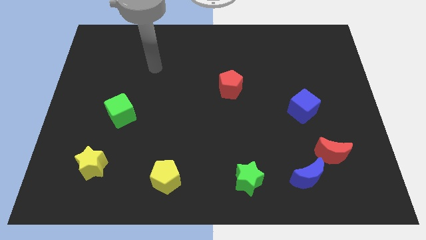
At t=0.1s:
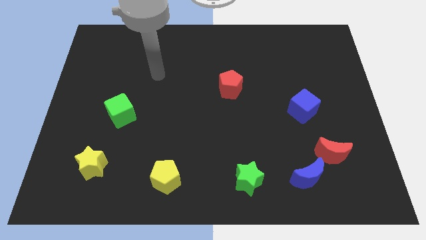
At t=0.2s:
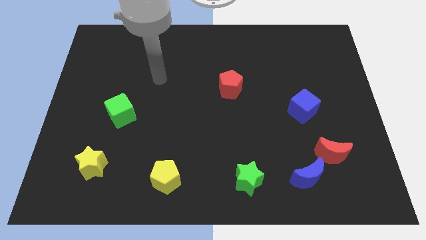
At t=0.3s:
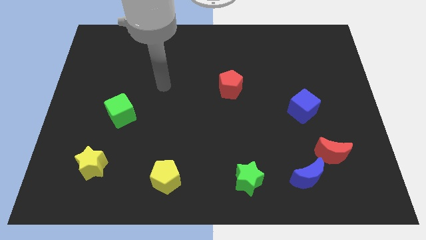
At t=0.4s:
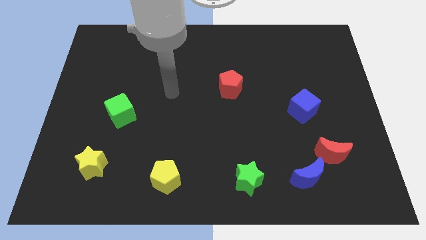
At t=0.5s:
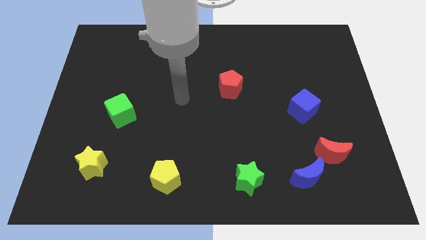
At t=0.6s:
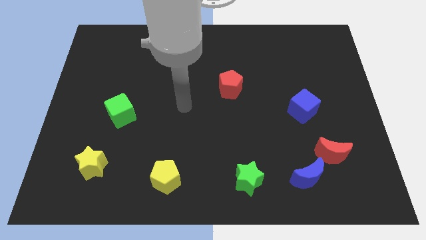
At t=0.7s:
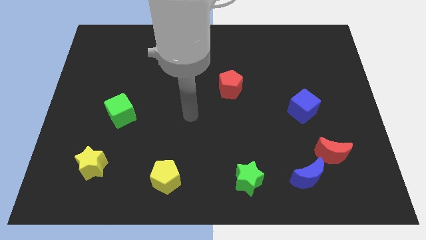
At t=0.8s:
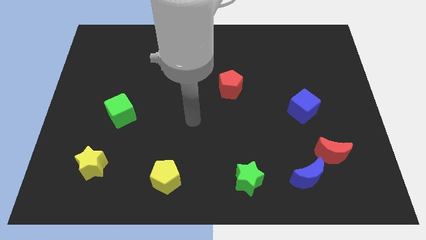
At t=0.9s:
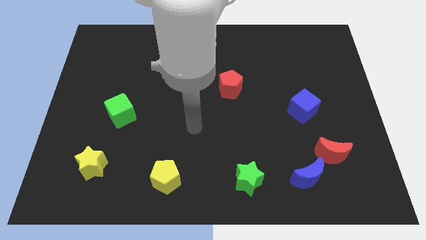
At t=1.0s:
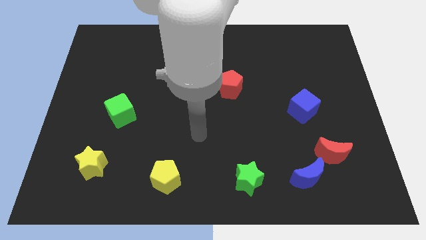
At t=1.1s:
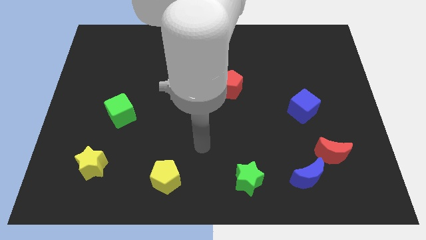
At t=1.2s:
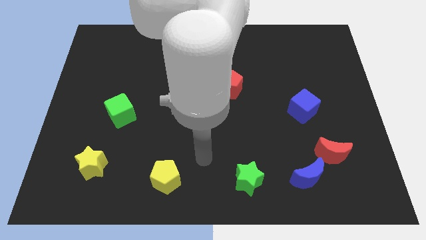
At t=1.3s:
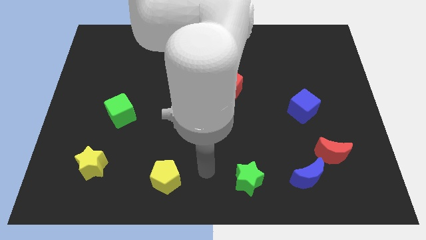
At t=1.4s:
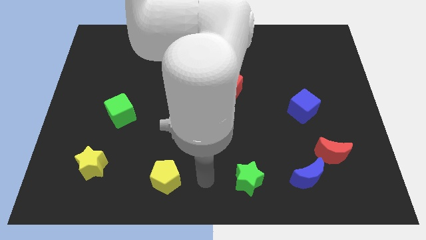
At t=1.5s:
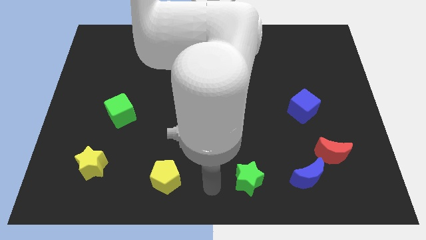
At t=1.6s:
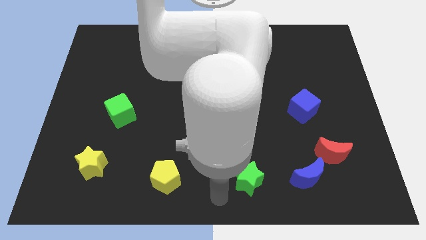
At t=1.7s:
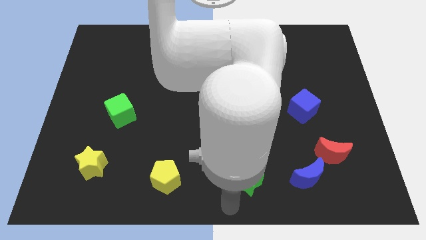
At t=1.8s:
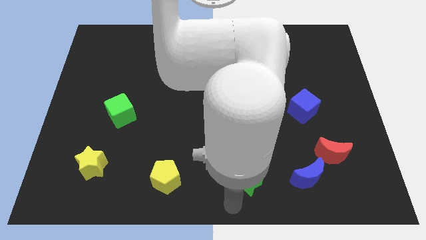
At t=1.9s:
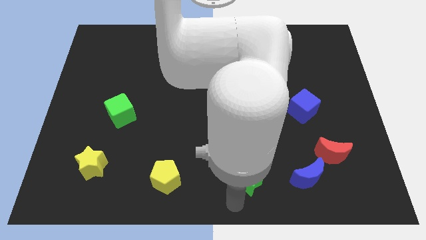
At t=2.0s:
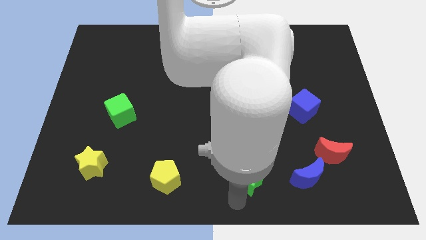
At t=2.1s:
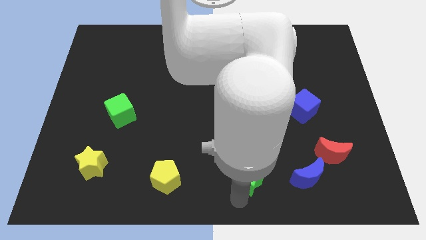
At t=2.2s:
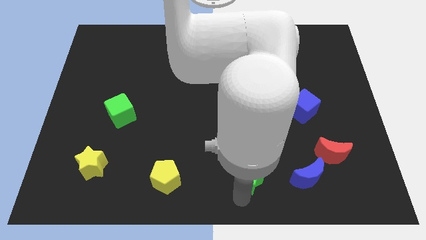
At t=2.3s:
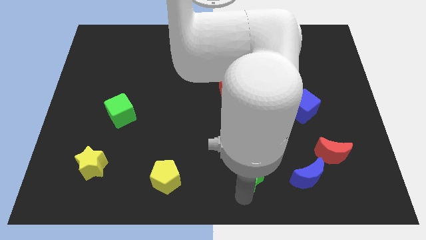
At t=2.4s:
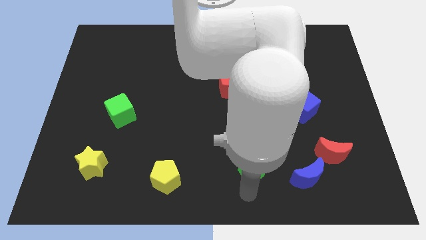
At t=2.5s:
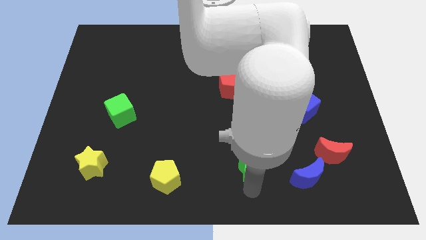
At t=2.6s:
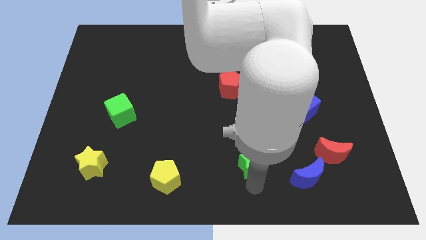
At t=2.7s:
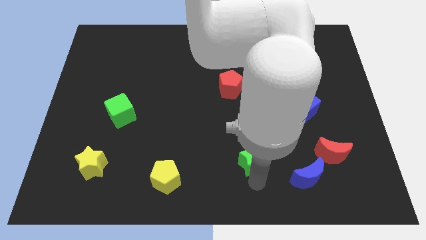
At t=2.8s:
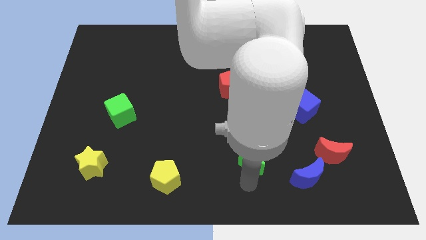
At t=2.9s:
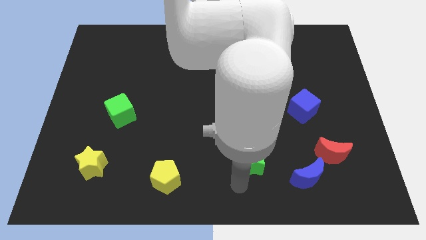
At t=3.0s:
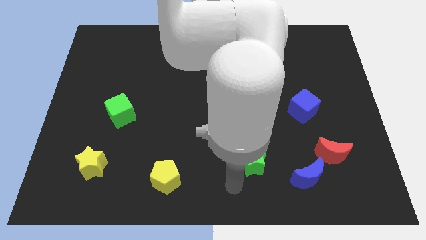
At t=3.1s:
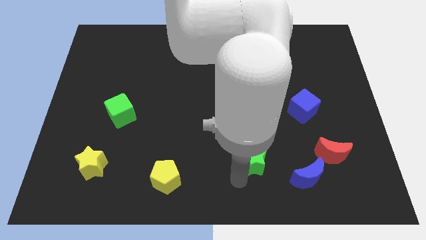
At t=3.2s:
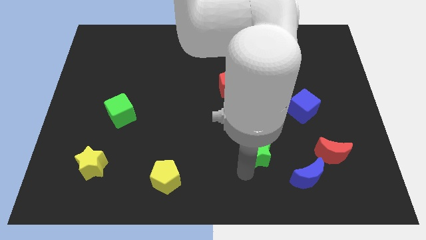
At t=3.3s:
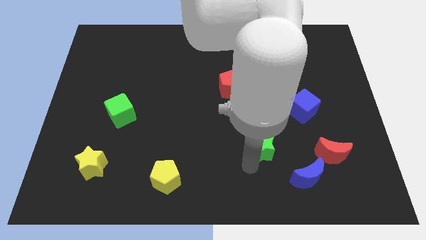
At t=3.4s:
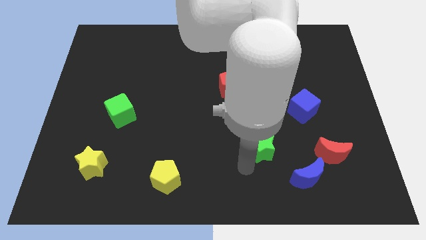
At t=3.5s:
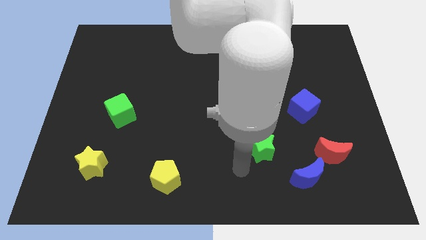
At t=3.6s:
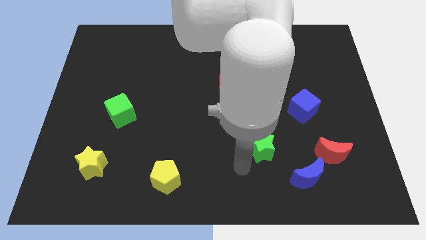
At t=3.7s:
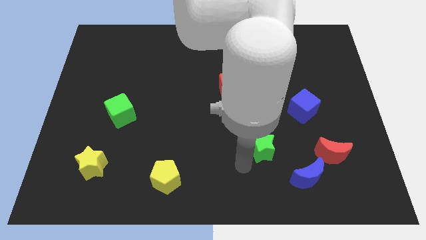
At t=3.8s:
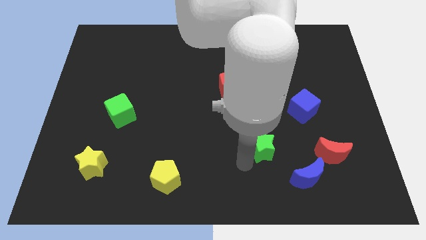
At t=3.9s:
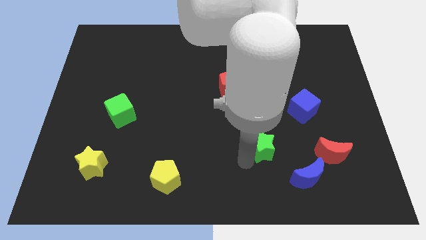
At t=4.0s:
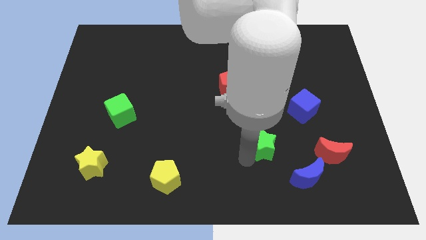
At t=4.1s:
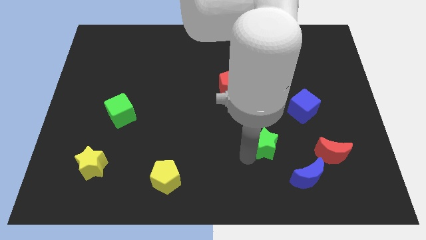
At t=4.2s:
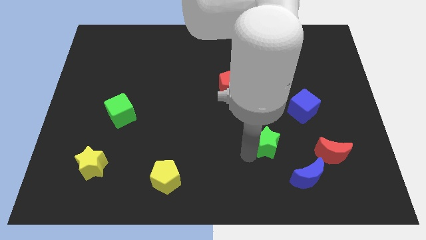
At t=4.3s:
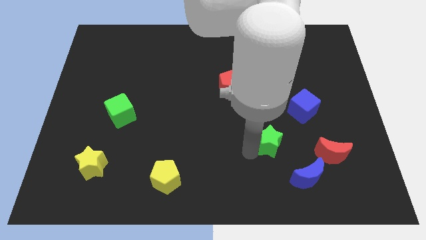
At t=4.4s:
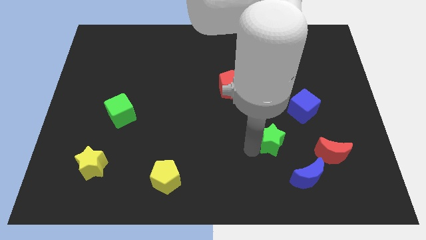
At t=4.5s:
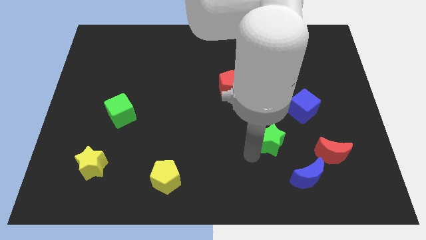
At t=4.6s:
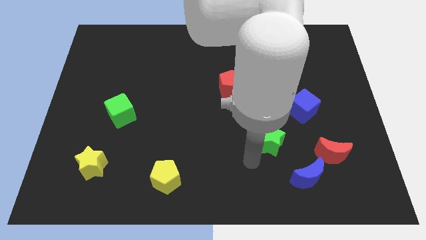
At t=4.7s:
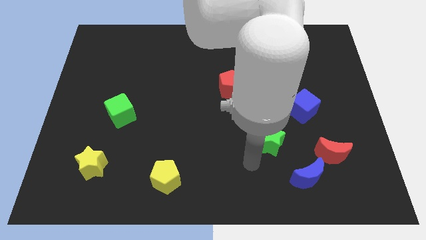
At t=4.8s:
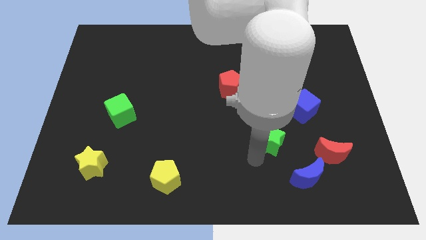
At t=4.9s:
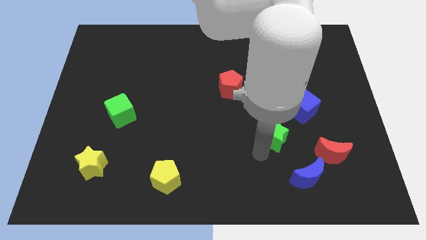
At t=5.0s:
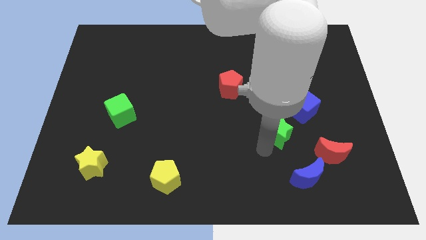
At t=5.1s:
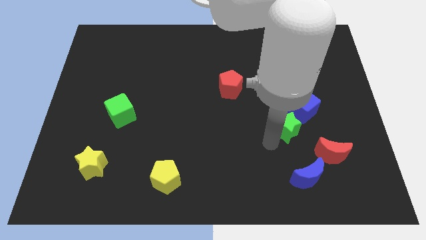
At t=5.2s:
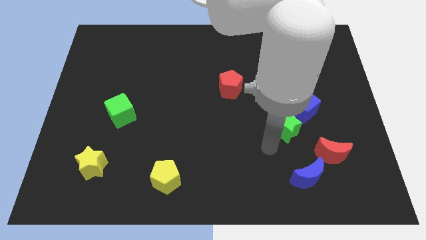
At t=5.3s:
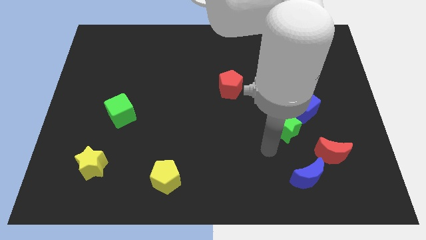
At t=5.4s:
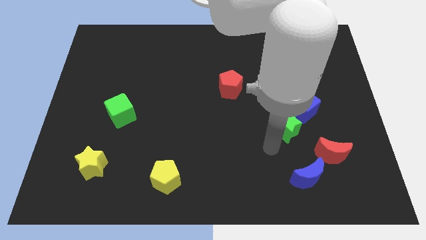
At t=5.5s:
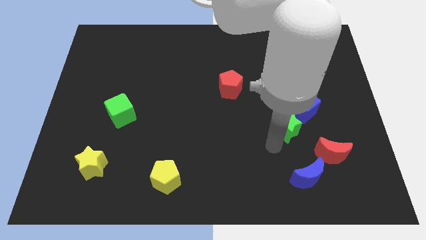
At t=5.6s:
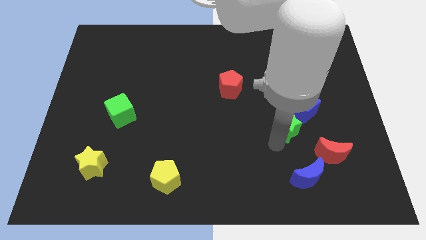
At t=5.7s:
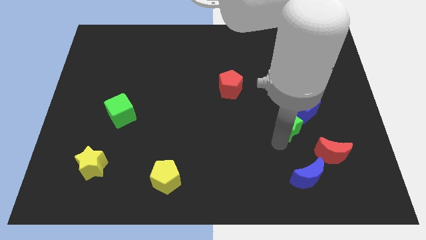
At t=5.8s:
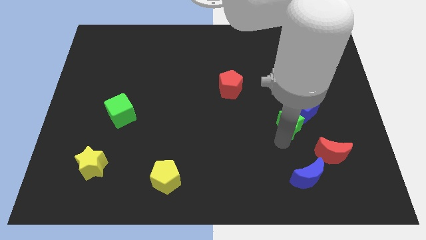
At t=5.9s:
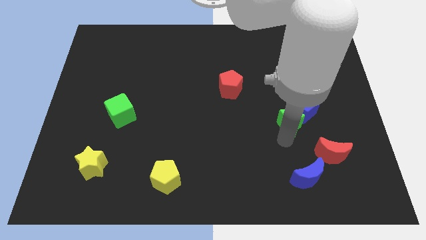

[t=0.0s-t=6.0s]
slide the green star towards the blue cube

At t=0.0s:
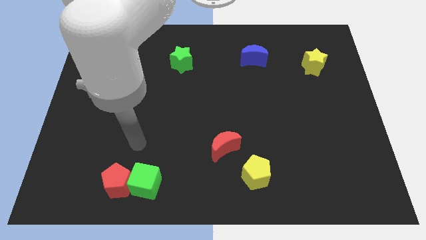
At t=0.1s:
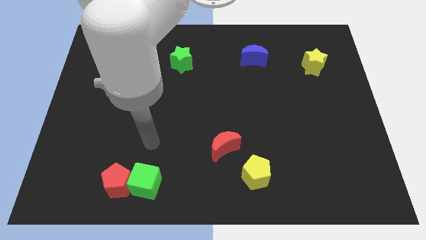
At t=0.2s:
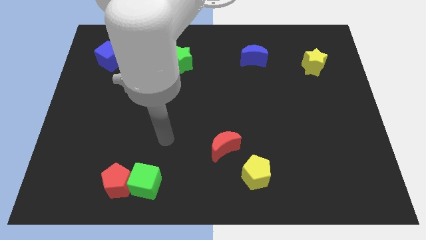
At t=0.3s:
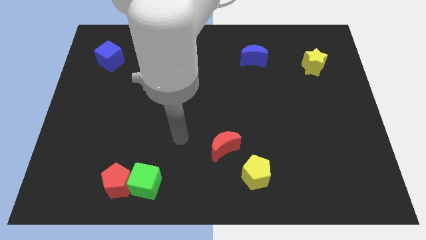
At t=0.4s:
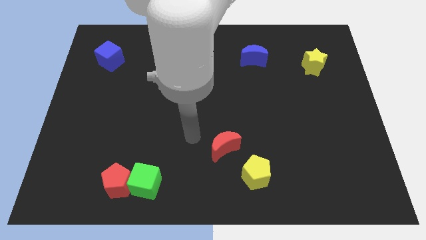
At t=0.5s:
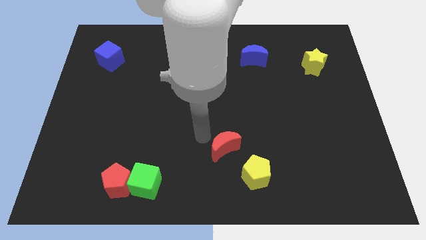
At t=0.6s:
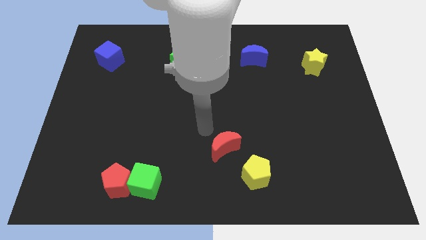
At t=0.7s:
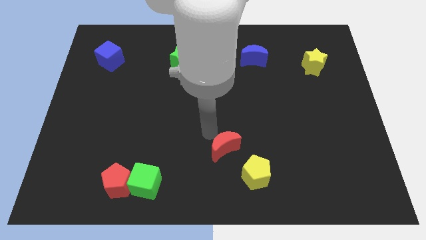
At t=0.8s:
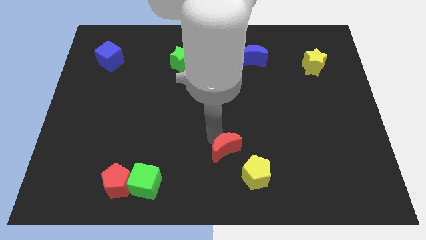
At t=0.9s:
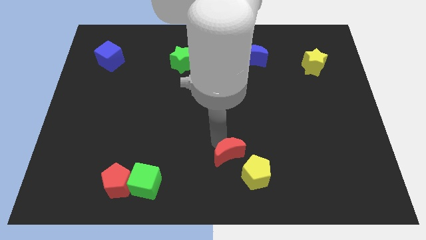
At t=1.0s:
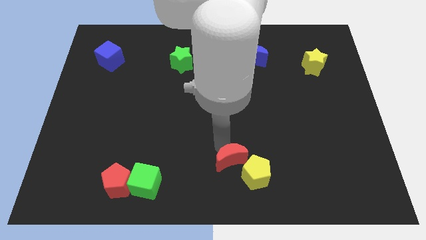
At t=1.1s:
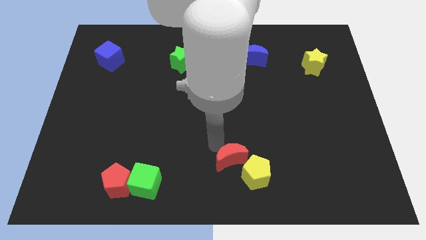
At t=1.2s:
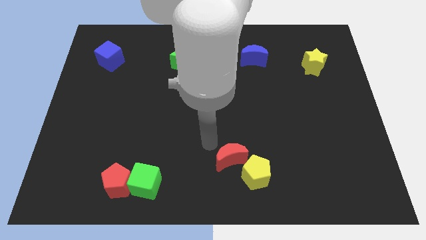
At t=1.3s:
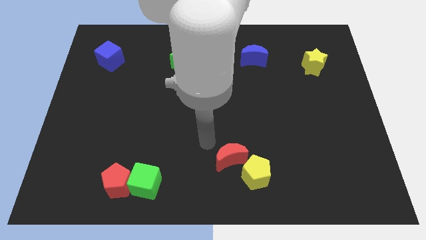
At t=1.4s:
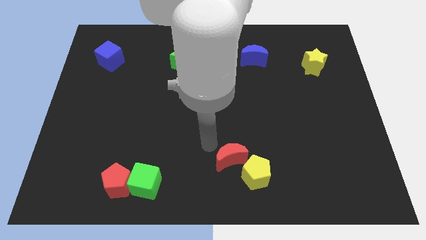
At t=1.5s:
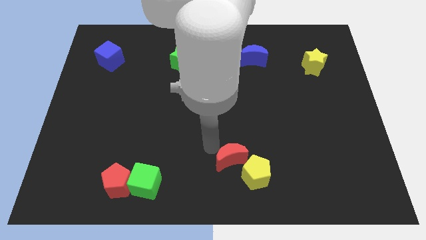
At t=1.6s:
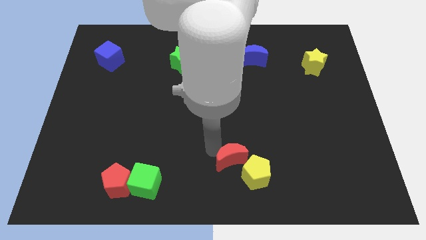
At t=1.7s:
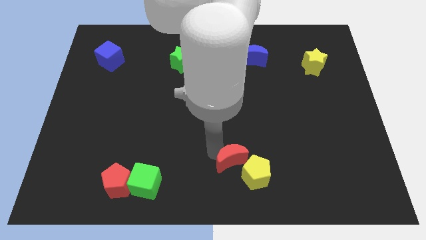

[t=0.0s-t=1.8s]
slide the red moon next to the yellow pentagon
